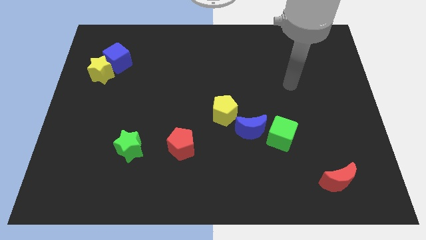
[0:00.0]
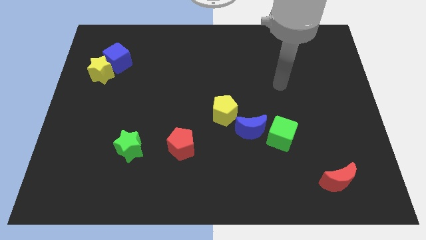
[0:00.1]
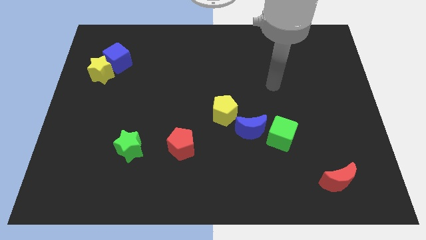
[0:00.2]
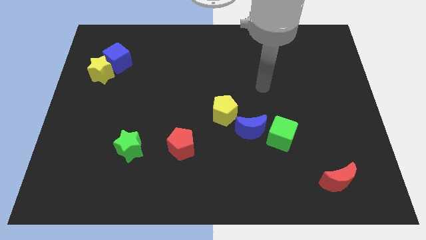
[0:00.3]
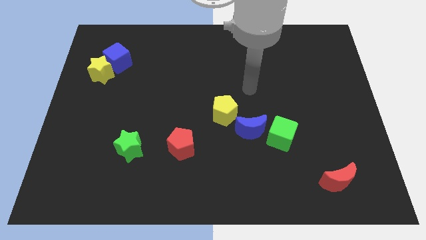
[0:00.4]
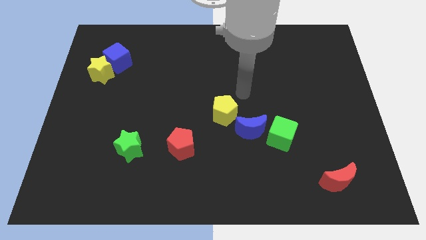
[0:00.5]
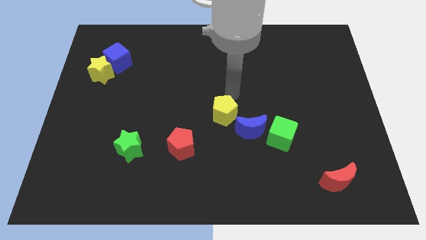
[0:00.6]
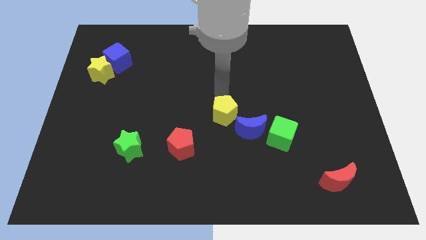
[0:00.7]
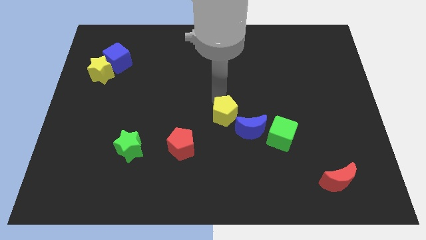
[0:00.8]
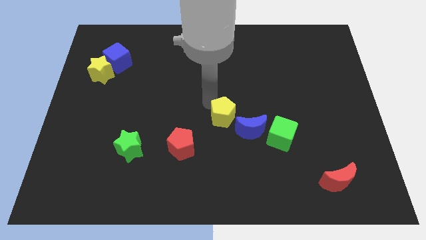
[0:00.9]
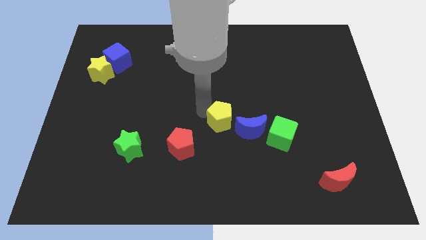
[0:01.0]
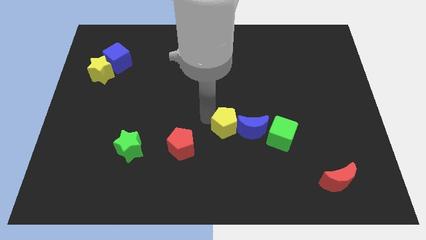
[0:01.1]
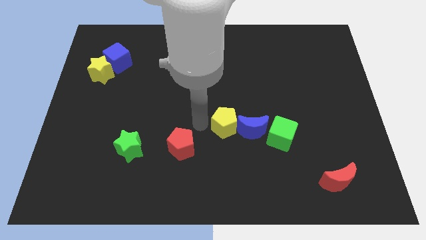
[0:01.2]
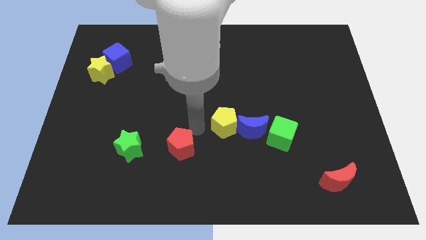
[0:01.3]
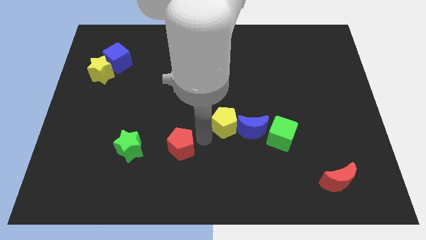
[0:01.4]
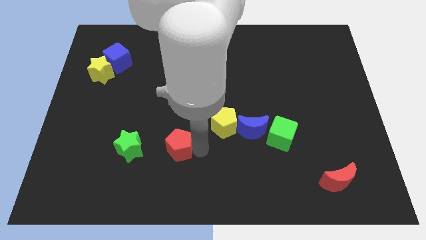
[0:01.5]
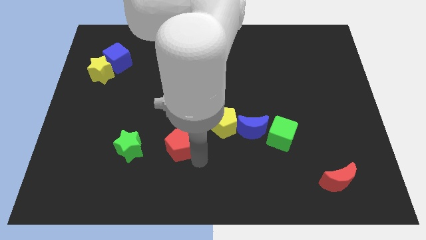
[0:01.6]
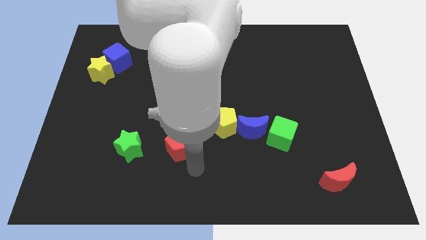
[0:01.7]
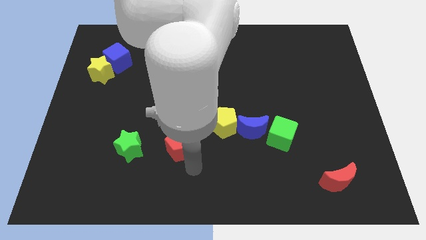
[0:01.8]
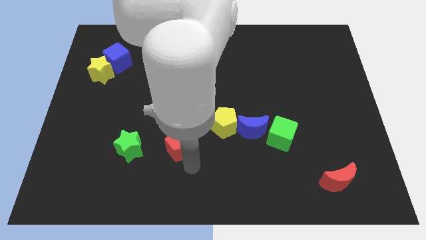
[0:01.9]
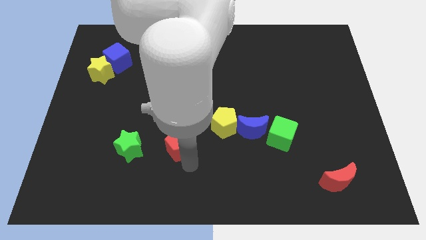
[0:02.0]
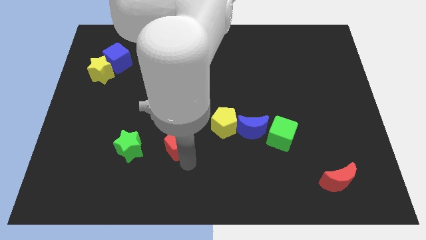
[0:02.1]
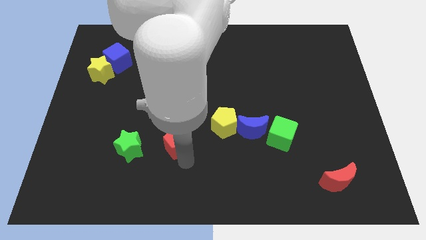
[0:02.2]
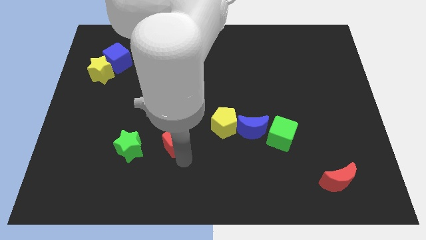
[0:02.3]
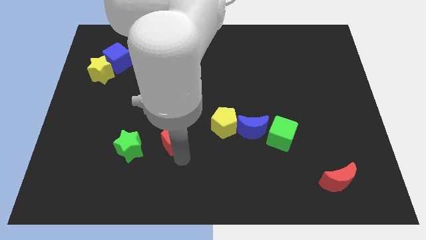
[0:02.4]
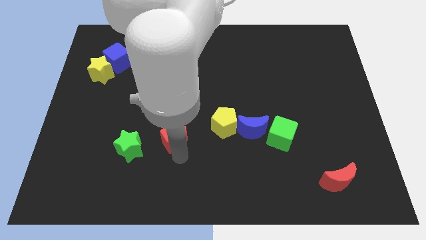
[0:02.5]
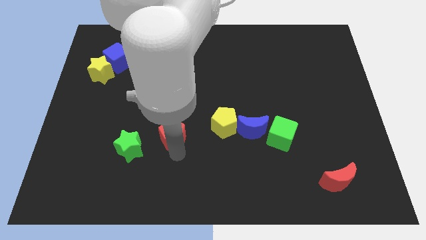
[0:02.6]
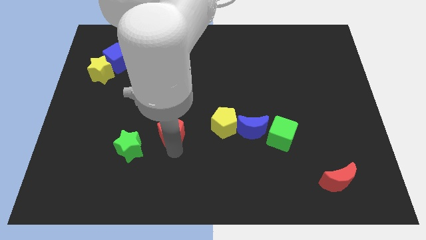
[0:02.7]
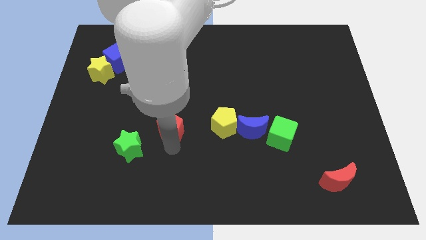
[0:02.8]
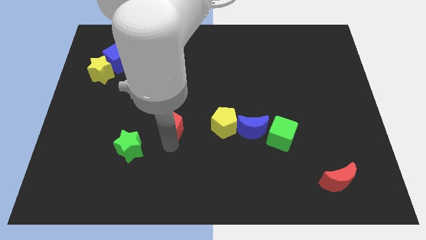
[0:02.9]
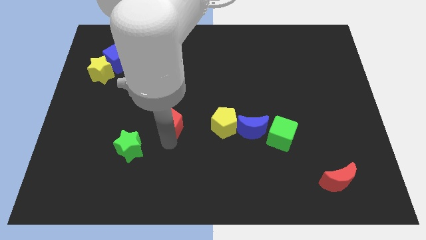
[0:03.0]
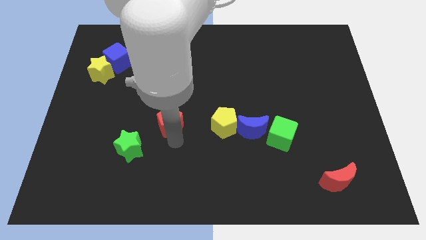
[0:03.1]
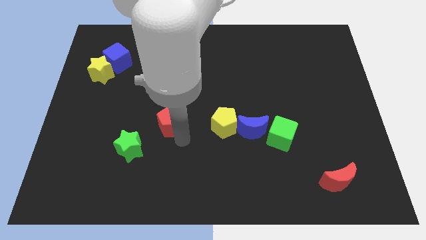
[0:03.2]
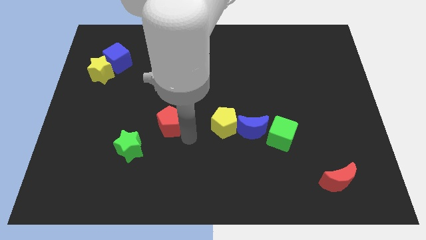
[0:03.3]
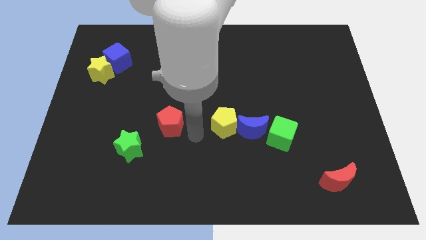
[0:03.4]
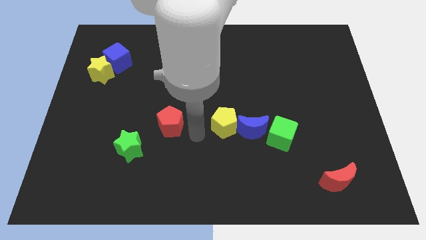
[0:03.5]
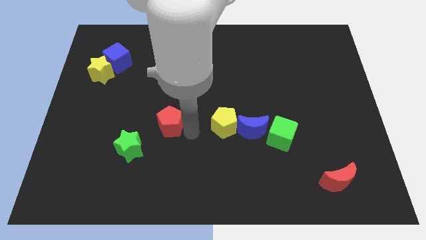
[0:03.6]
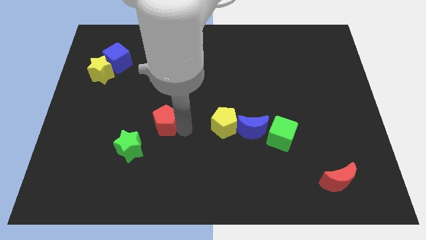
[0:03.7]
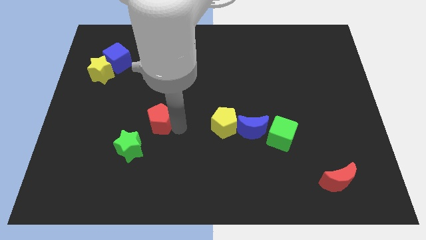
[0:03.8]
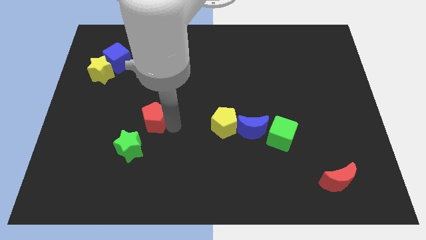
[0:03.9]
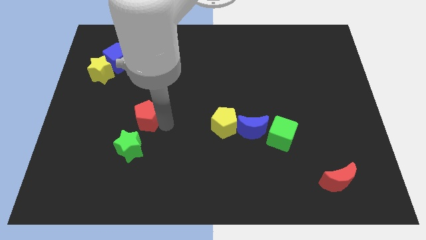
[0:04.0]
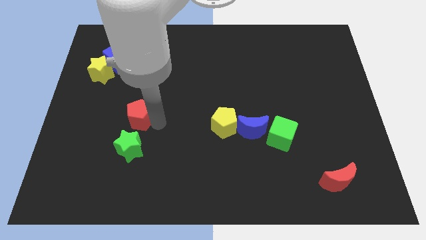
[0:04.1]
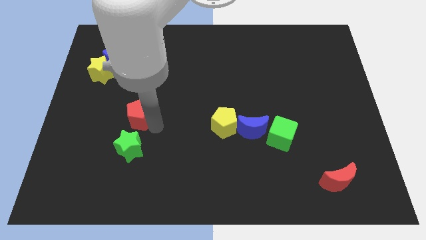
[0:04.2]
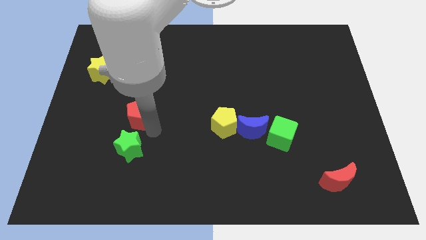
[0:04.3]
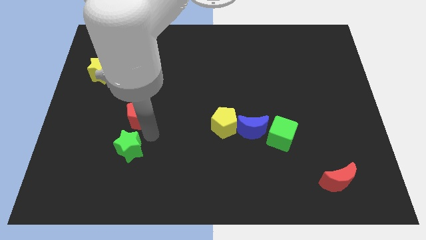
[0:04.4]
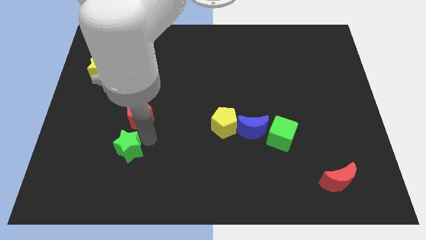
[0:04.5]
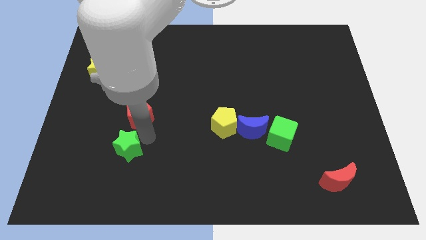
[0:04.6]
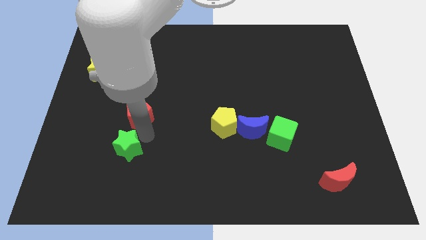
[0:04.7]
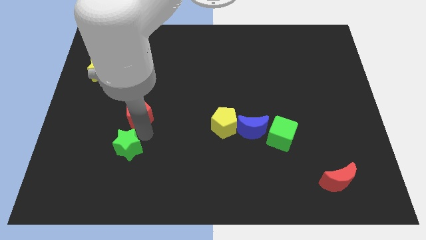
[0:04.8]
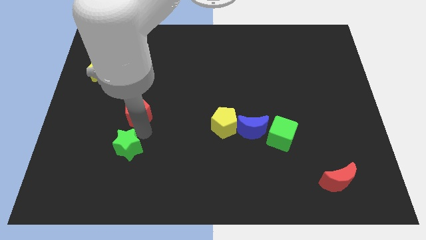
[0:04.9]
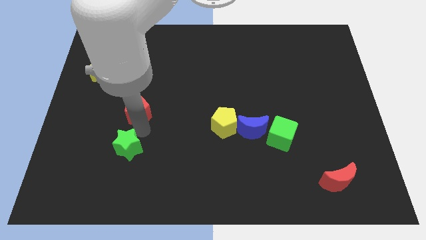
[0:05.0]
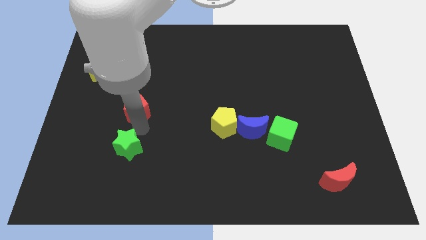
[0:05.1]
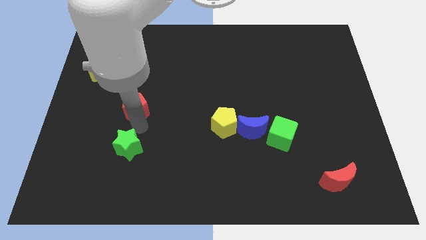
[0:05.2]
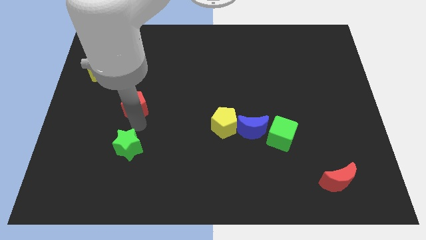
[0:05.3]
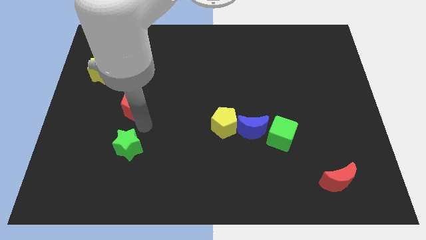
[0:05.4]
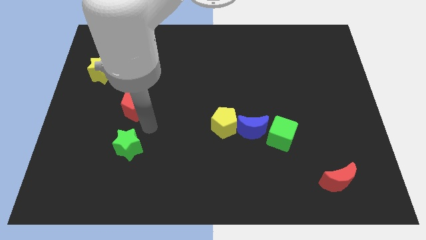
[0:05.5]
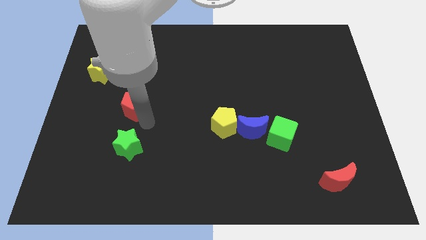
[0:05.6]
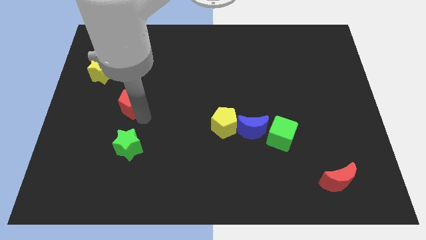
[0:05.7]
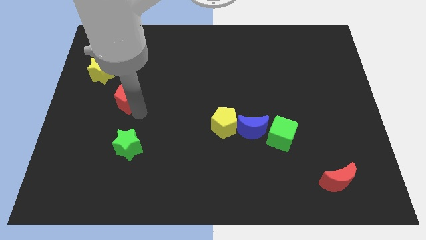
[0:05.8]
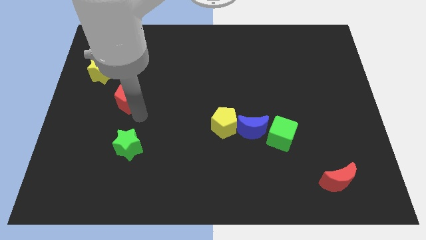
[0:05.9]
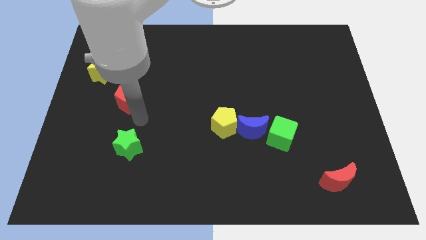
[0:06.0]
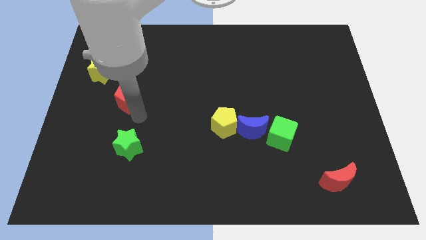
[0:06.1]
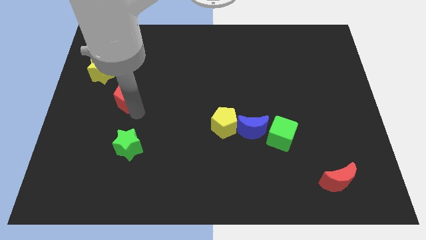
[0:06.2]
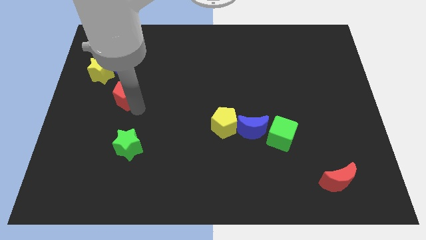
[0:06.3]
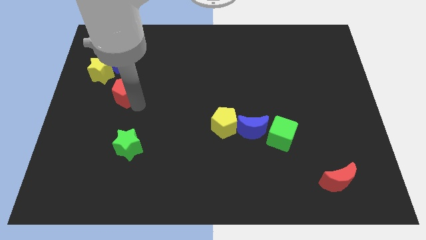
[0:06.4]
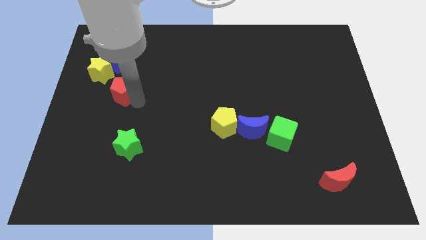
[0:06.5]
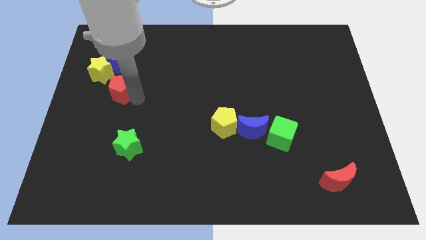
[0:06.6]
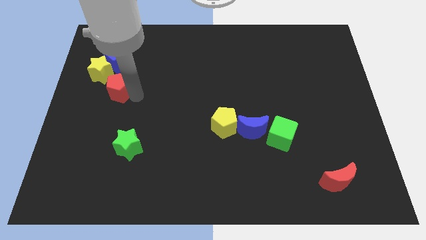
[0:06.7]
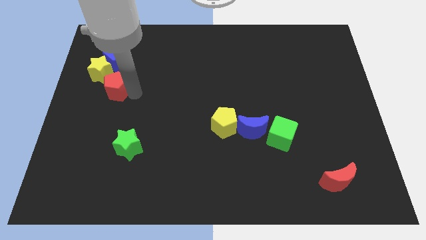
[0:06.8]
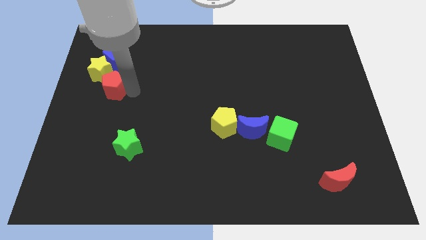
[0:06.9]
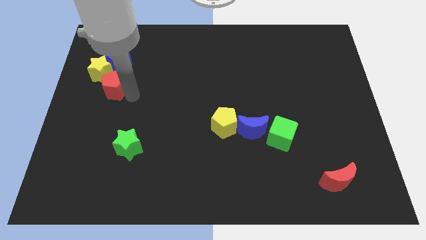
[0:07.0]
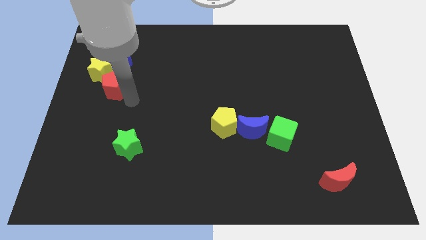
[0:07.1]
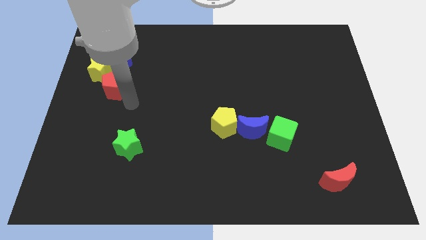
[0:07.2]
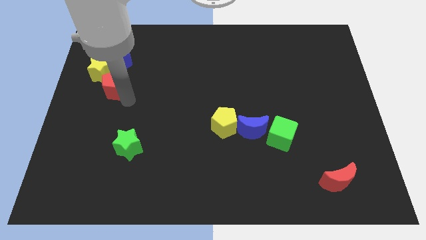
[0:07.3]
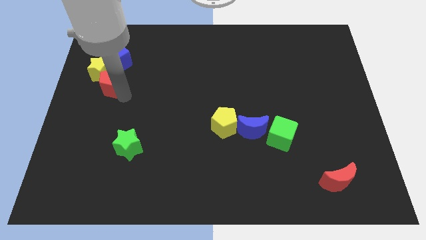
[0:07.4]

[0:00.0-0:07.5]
slide the red pentagon to the yellow star
